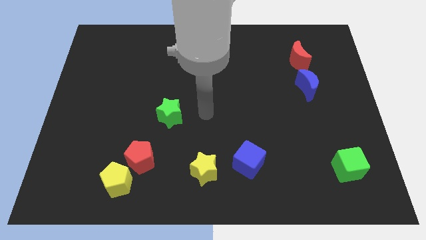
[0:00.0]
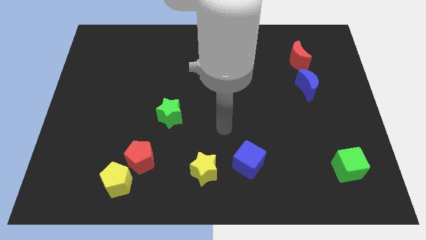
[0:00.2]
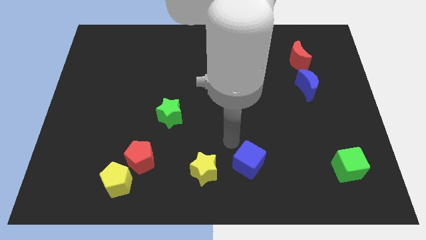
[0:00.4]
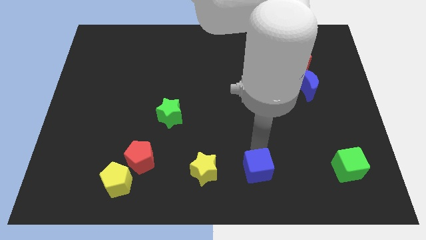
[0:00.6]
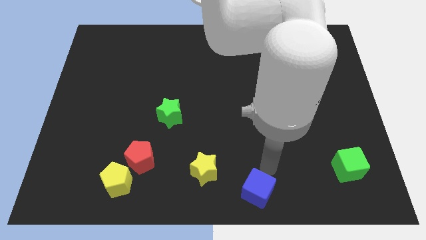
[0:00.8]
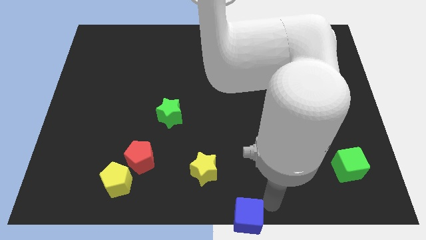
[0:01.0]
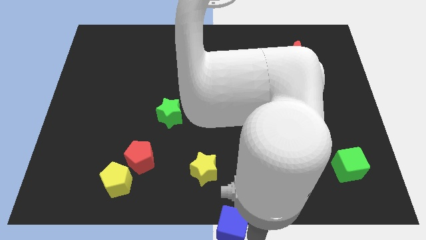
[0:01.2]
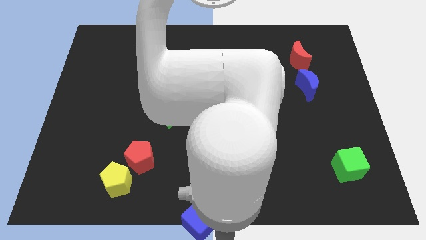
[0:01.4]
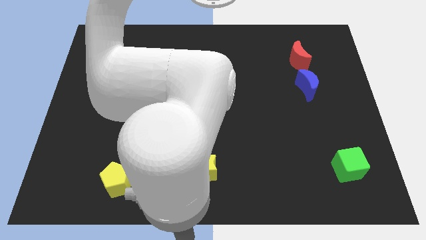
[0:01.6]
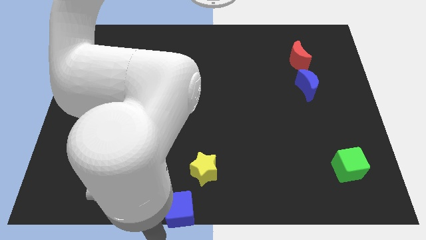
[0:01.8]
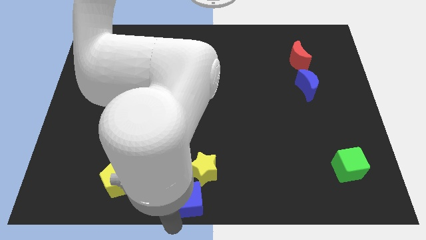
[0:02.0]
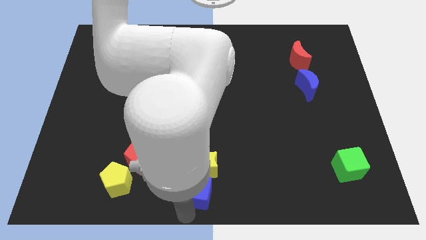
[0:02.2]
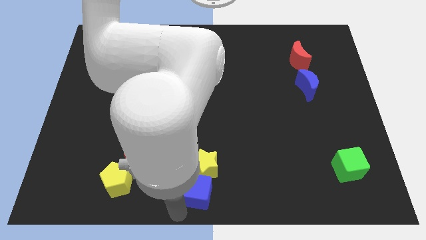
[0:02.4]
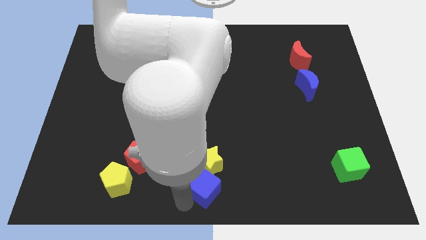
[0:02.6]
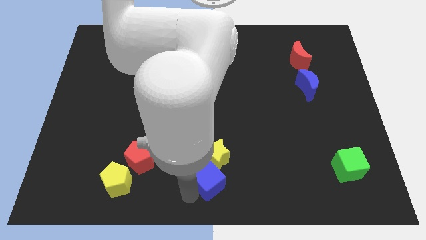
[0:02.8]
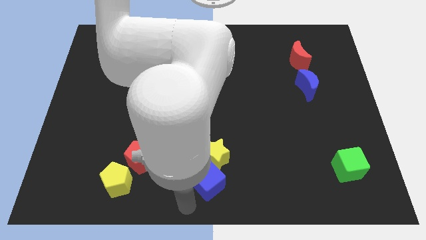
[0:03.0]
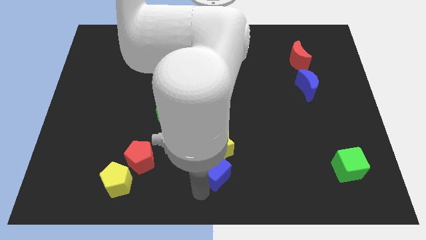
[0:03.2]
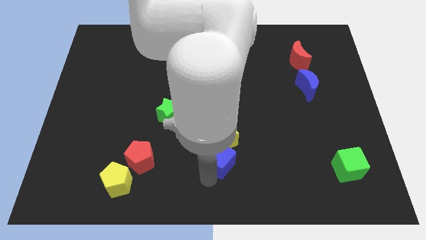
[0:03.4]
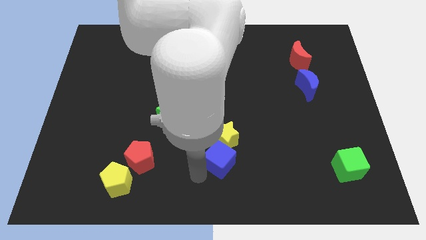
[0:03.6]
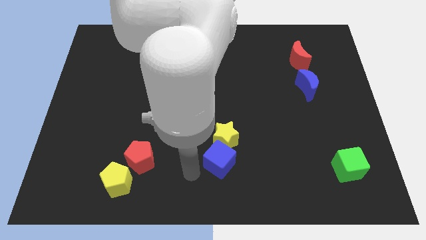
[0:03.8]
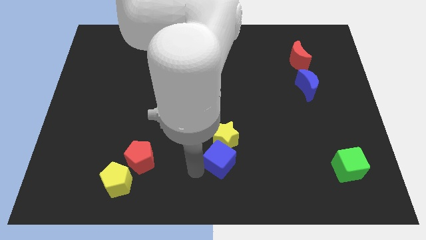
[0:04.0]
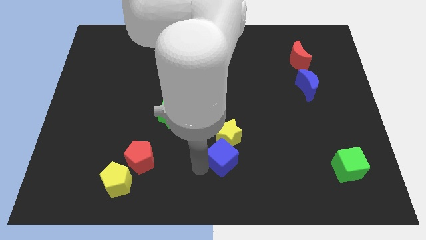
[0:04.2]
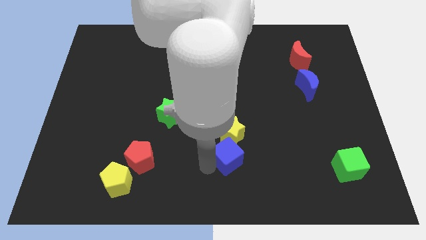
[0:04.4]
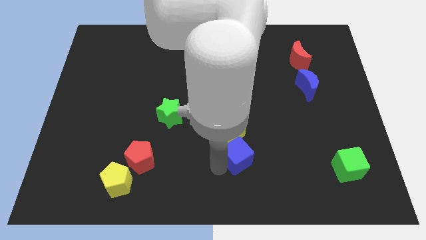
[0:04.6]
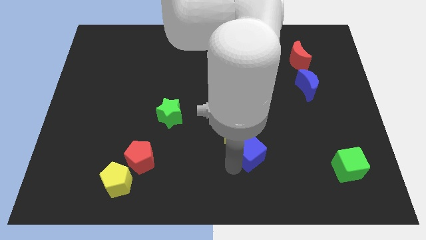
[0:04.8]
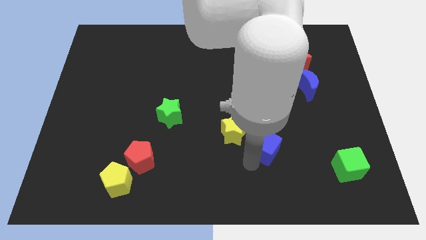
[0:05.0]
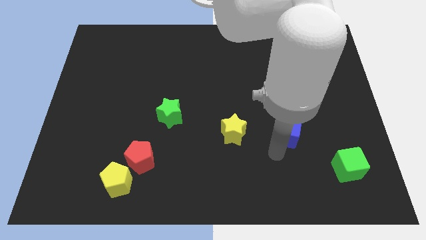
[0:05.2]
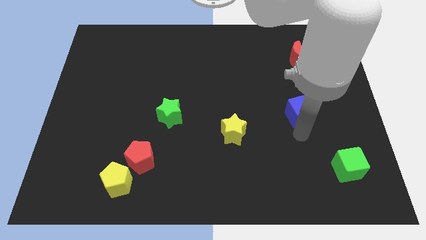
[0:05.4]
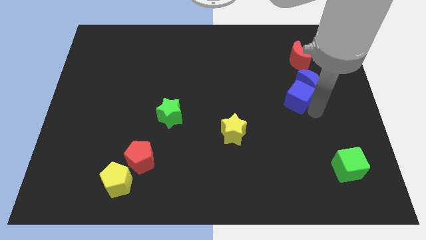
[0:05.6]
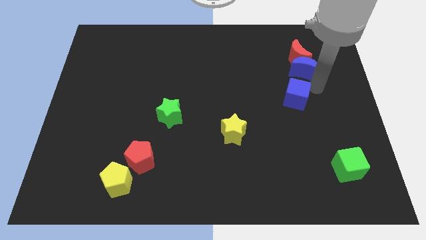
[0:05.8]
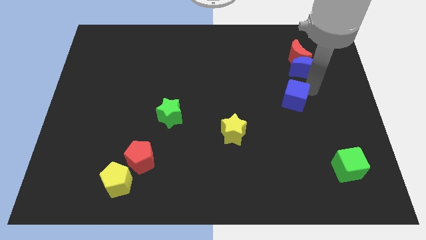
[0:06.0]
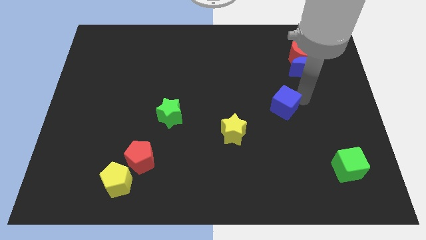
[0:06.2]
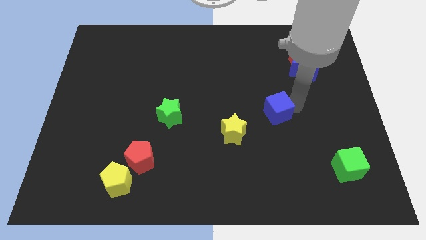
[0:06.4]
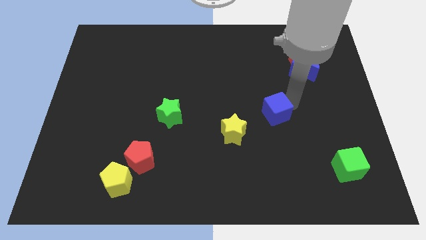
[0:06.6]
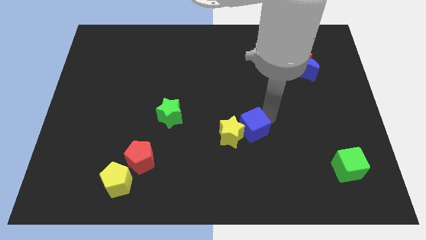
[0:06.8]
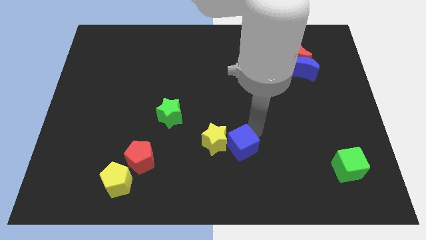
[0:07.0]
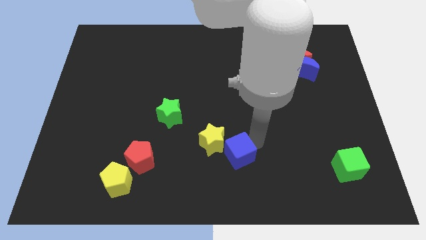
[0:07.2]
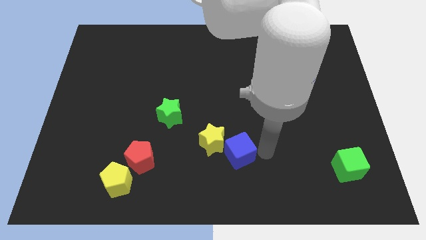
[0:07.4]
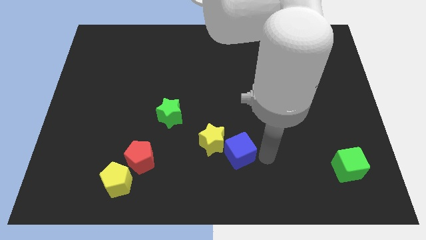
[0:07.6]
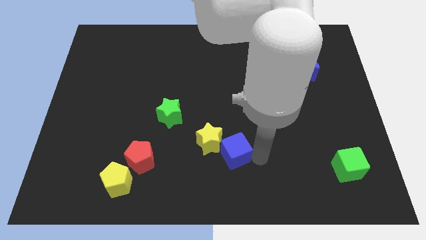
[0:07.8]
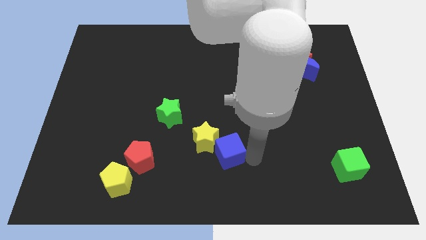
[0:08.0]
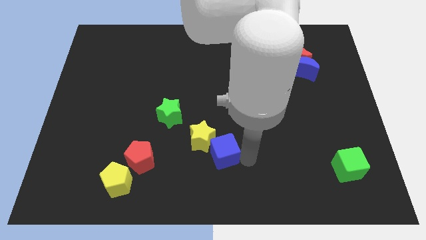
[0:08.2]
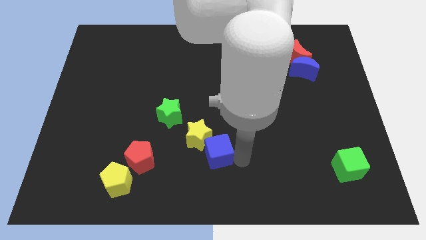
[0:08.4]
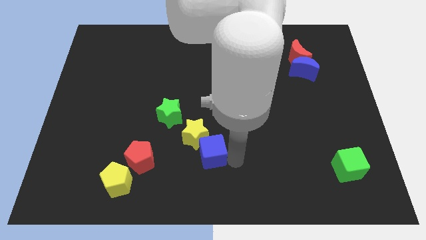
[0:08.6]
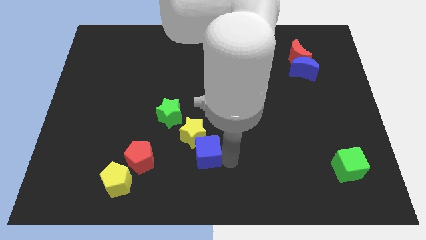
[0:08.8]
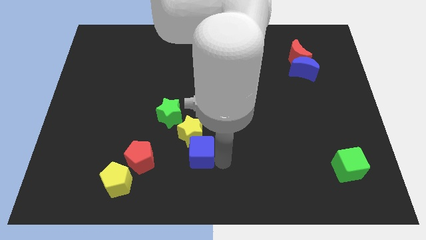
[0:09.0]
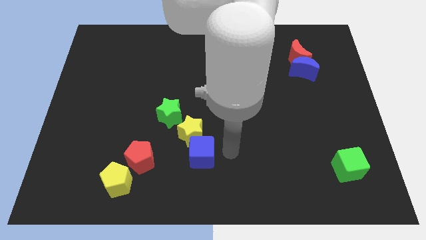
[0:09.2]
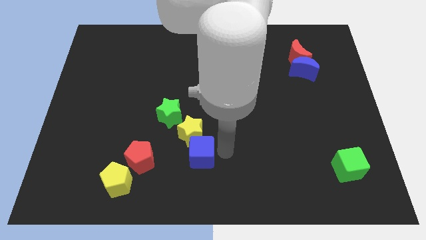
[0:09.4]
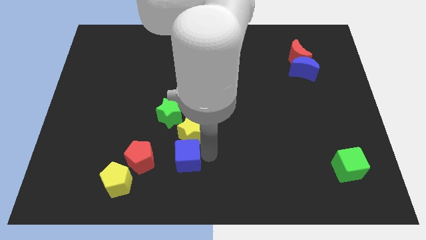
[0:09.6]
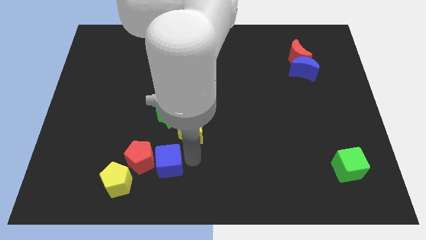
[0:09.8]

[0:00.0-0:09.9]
put the blue cube next to the red pentagon

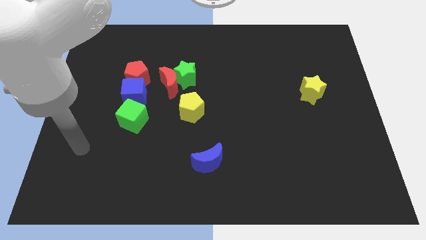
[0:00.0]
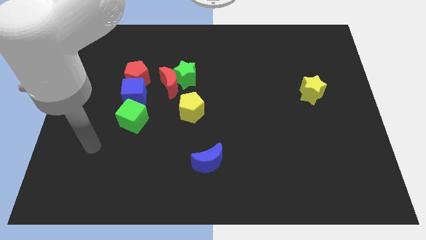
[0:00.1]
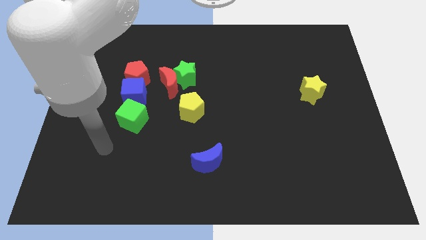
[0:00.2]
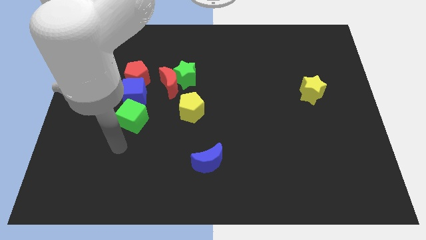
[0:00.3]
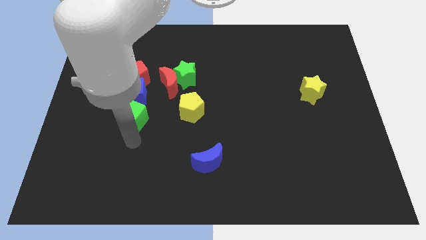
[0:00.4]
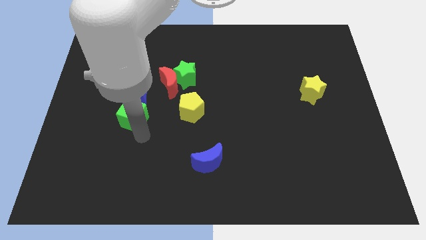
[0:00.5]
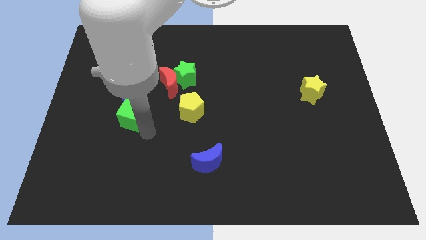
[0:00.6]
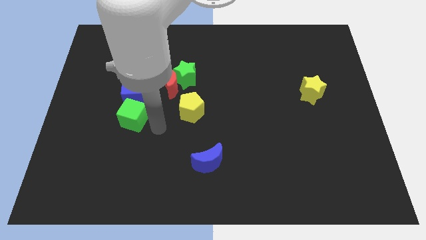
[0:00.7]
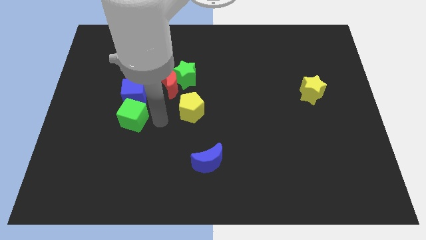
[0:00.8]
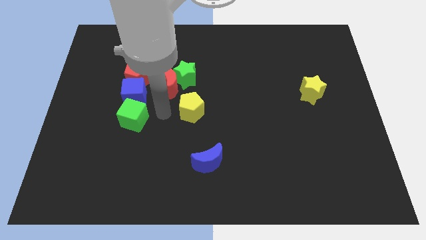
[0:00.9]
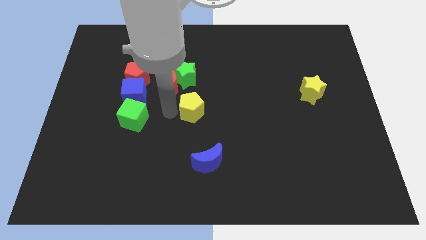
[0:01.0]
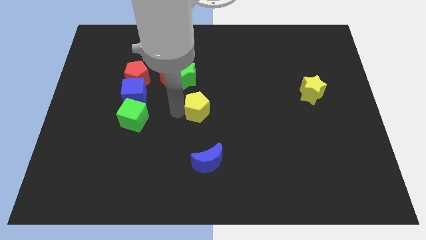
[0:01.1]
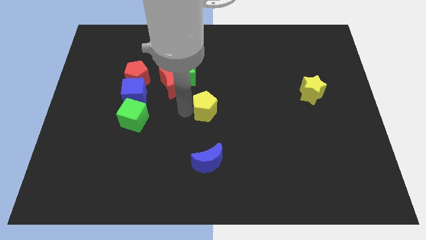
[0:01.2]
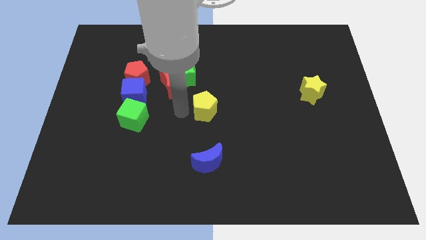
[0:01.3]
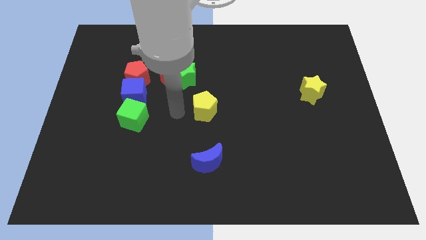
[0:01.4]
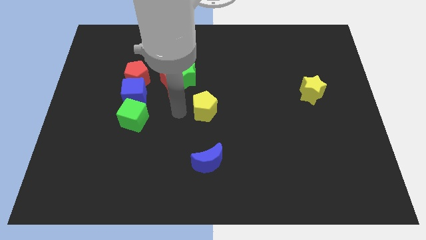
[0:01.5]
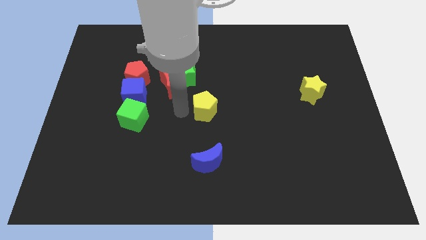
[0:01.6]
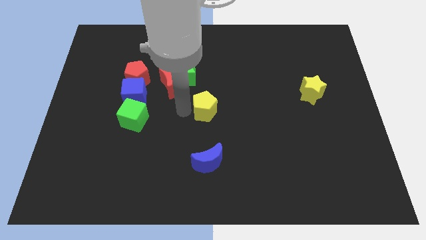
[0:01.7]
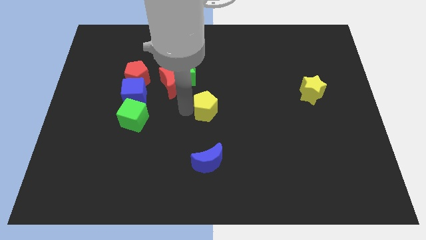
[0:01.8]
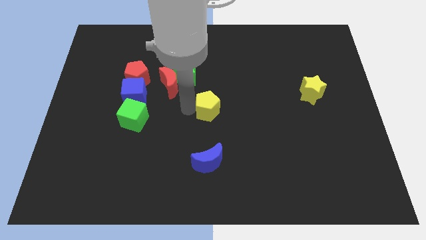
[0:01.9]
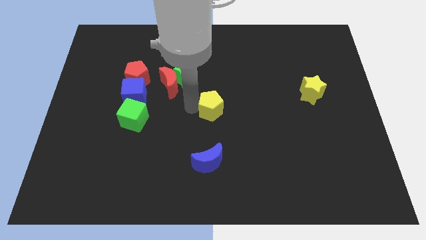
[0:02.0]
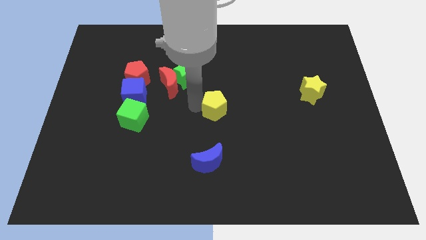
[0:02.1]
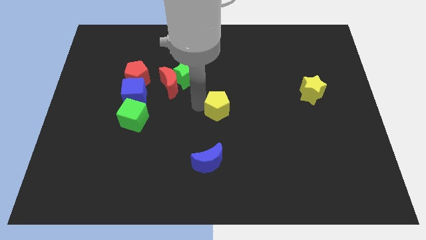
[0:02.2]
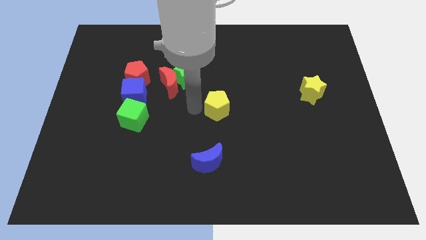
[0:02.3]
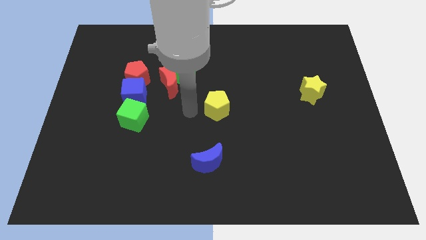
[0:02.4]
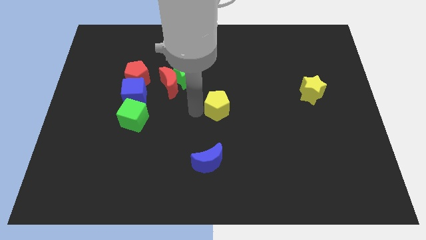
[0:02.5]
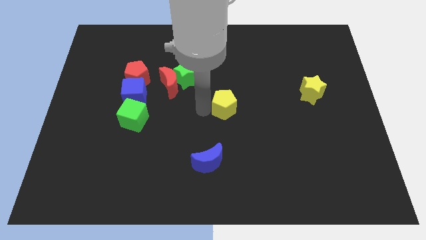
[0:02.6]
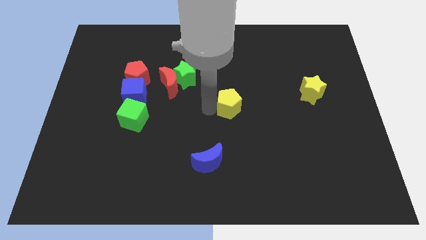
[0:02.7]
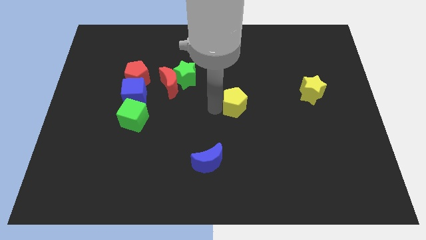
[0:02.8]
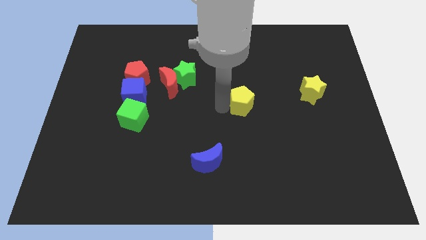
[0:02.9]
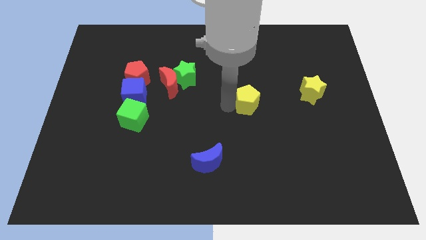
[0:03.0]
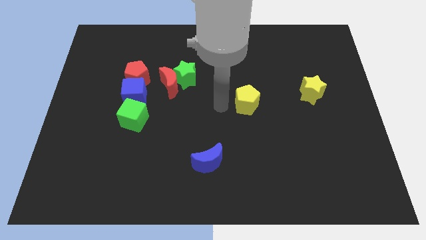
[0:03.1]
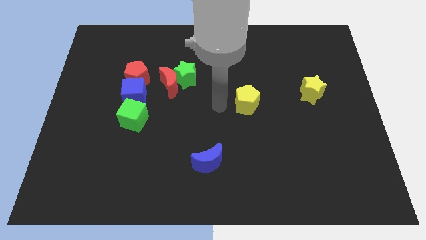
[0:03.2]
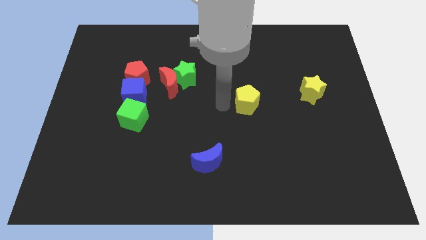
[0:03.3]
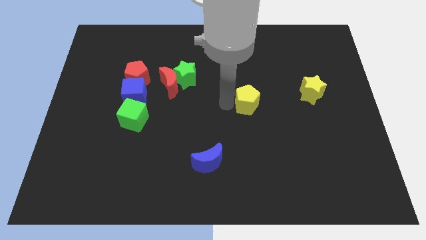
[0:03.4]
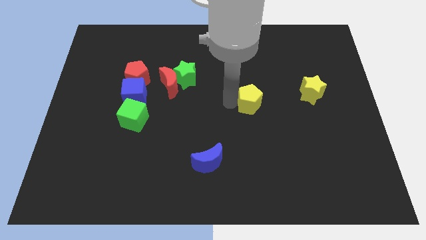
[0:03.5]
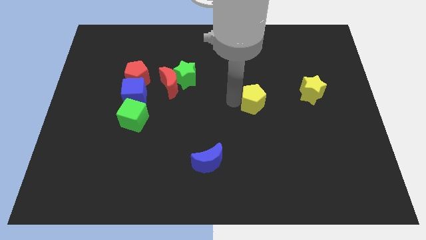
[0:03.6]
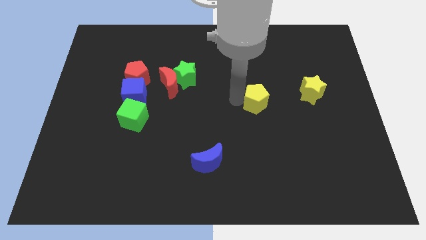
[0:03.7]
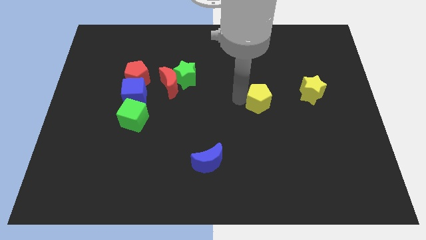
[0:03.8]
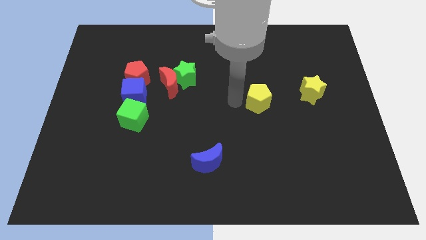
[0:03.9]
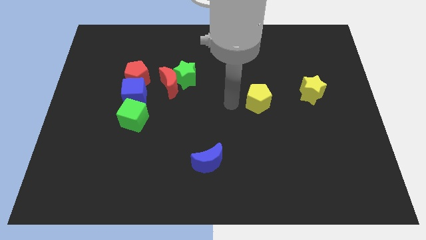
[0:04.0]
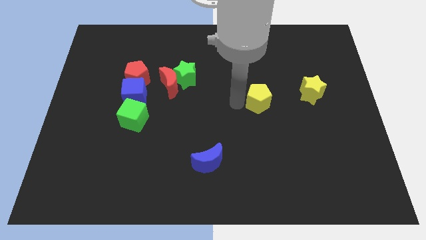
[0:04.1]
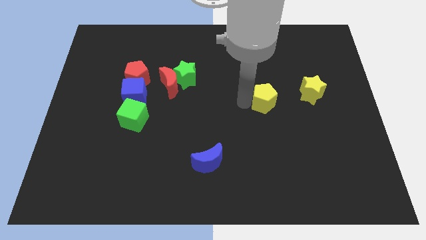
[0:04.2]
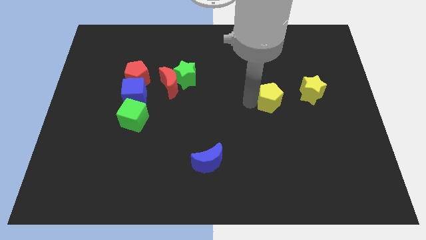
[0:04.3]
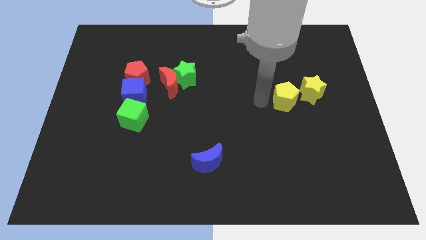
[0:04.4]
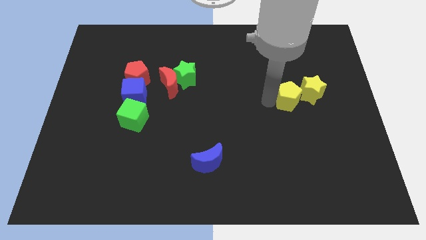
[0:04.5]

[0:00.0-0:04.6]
move the yellow pentagon towards the yellow star
